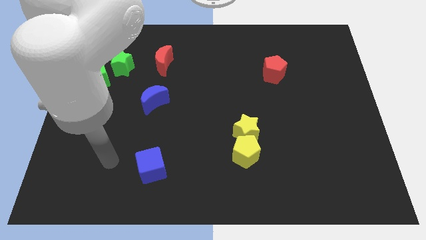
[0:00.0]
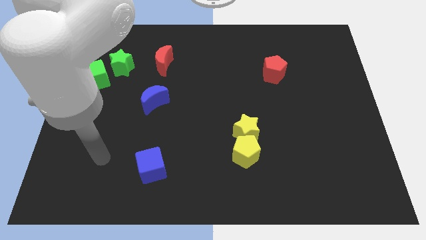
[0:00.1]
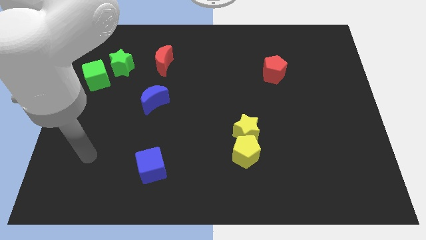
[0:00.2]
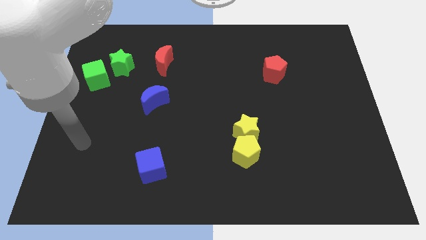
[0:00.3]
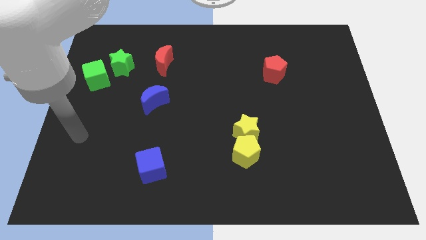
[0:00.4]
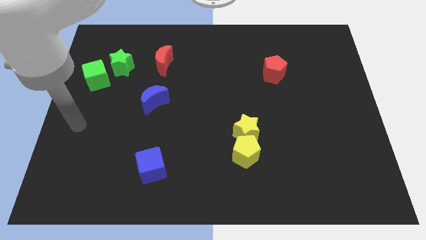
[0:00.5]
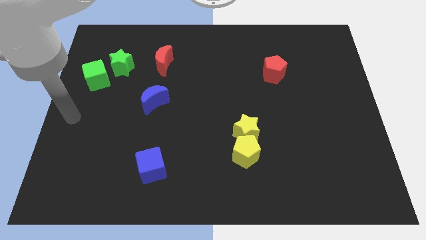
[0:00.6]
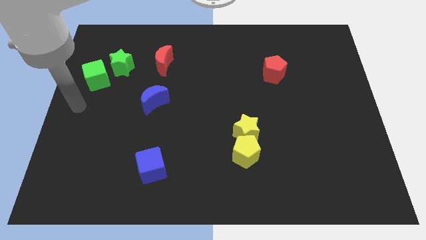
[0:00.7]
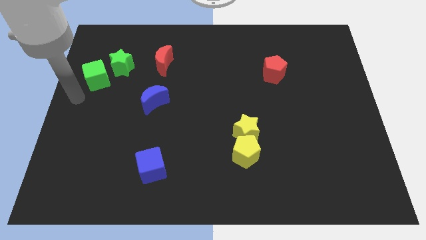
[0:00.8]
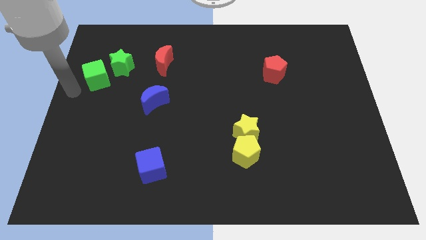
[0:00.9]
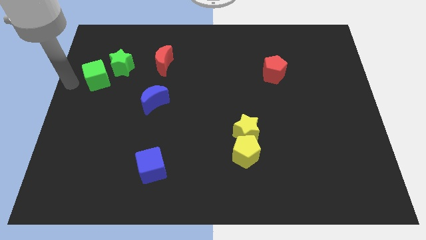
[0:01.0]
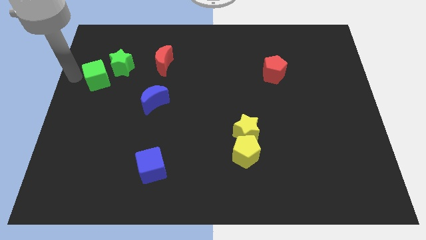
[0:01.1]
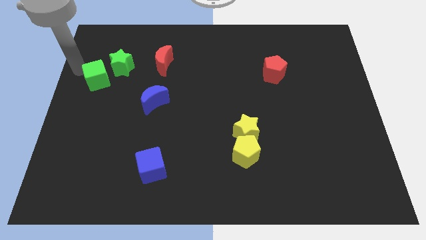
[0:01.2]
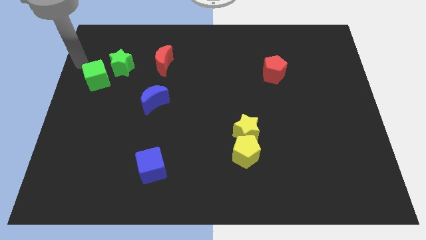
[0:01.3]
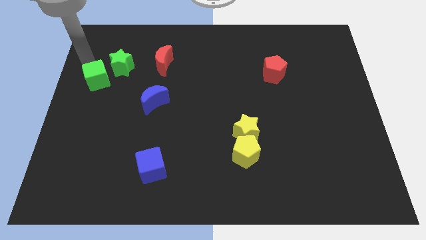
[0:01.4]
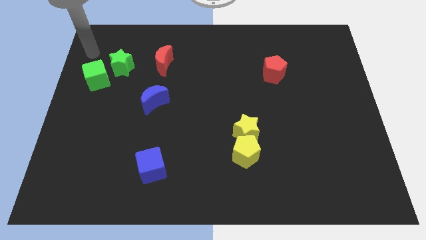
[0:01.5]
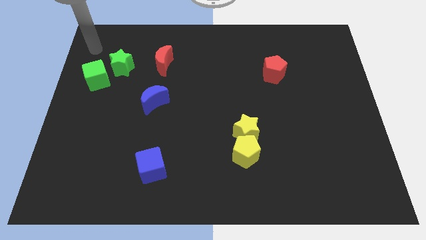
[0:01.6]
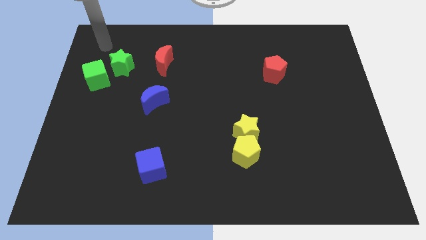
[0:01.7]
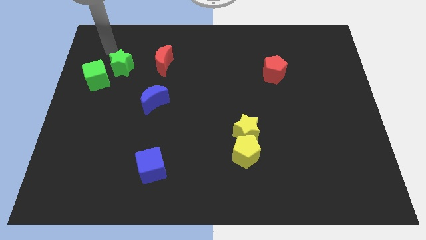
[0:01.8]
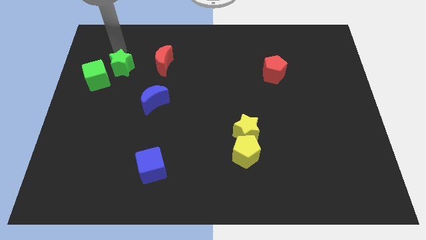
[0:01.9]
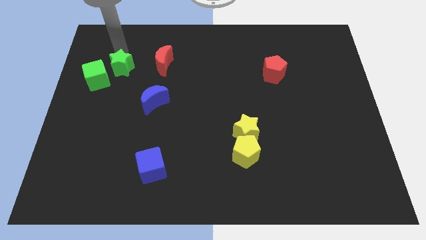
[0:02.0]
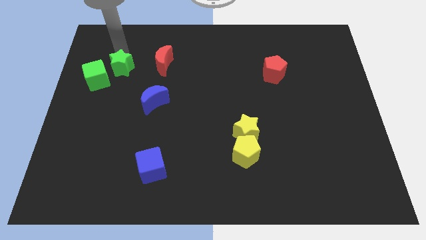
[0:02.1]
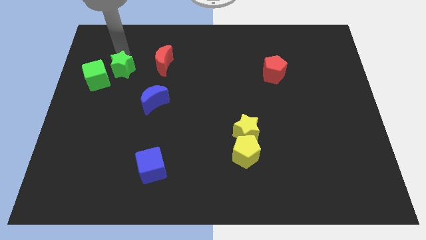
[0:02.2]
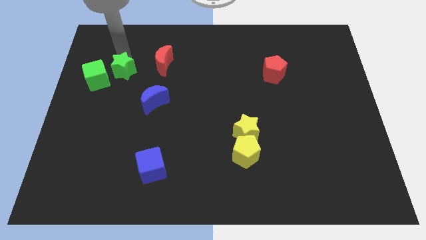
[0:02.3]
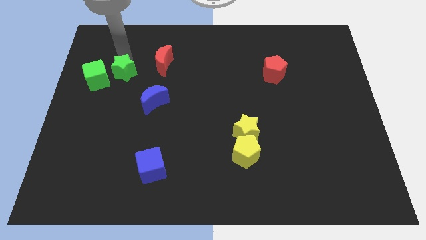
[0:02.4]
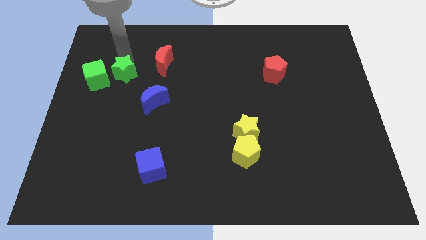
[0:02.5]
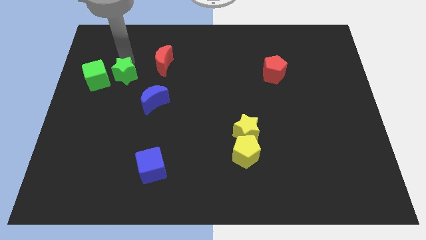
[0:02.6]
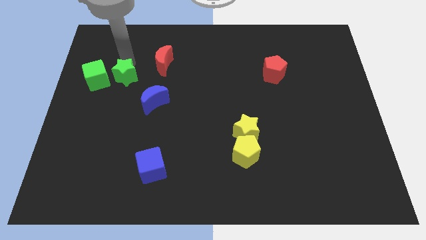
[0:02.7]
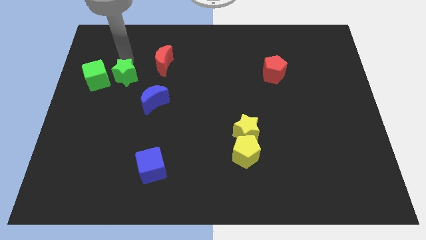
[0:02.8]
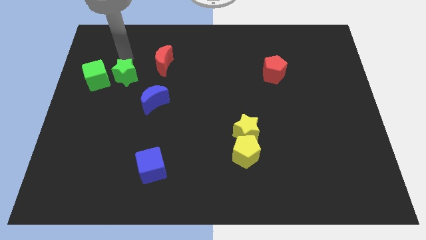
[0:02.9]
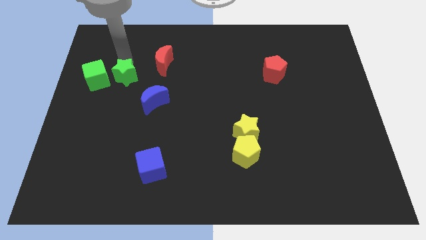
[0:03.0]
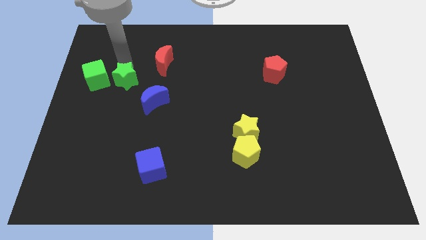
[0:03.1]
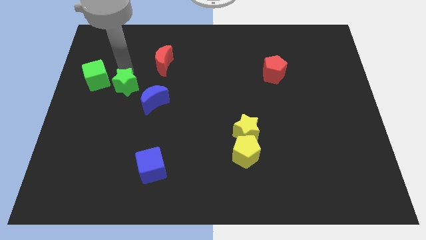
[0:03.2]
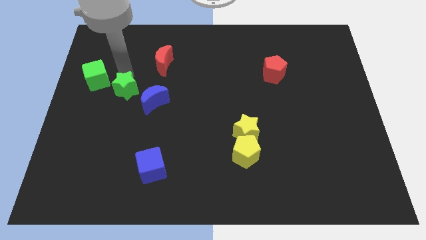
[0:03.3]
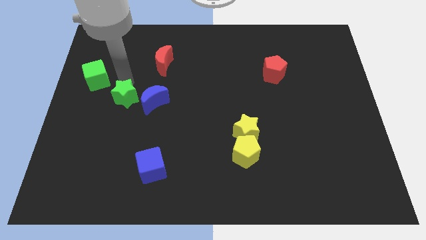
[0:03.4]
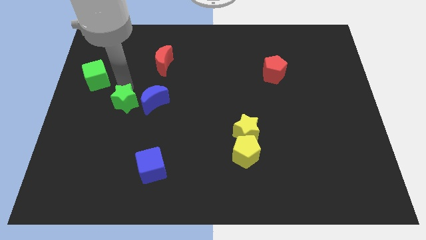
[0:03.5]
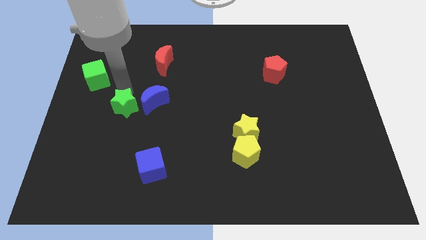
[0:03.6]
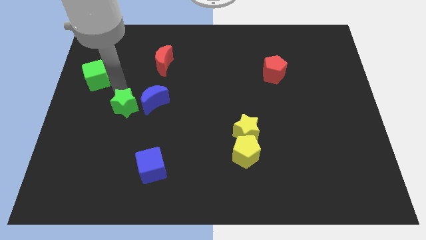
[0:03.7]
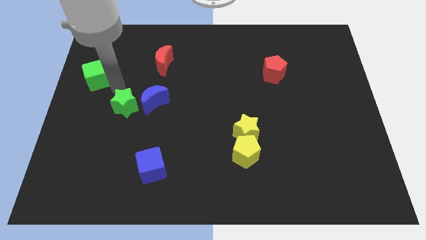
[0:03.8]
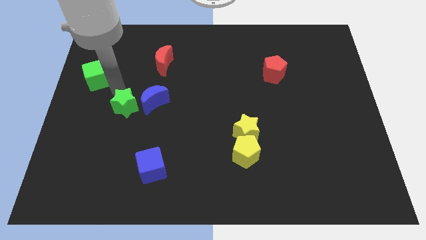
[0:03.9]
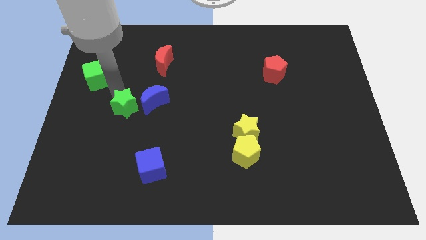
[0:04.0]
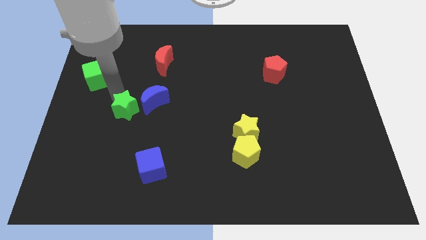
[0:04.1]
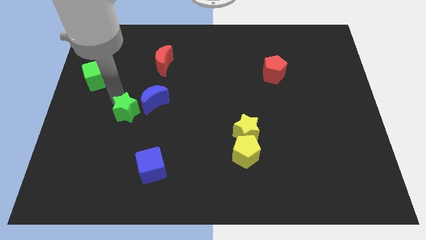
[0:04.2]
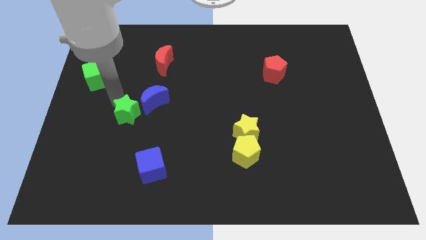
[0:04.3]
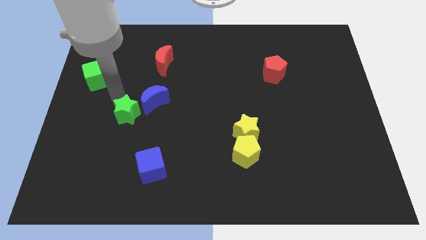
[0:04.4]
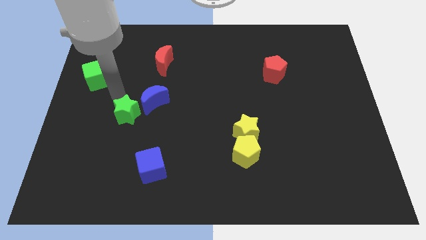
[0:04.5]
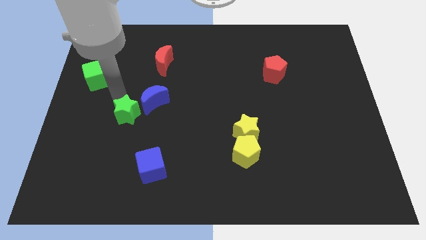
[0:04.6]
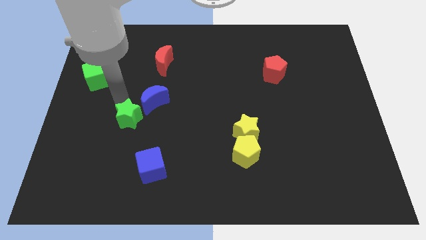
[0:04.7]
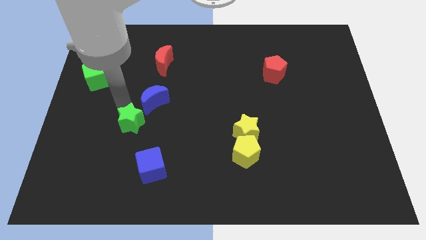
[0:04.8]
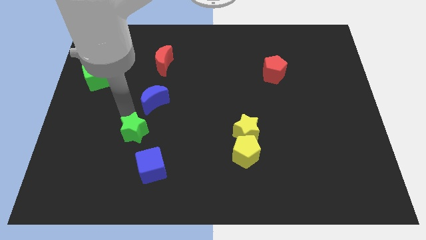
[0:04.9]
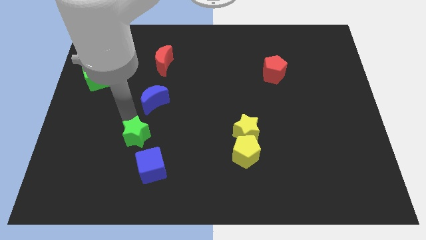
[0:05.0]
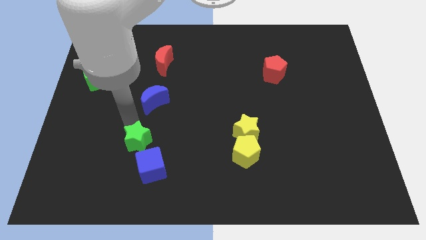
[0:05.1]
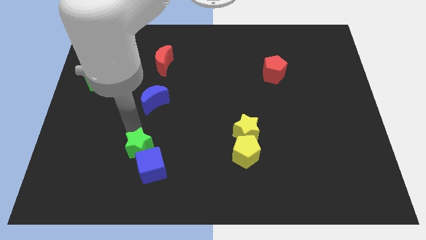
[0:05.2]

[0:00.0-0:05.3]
put the green star towards the blue cube

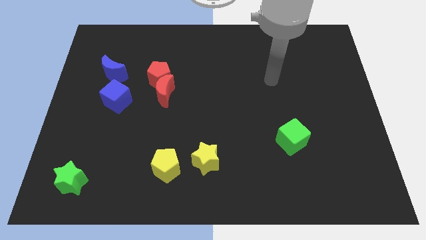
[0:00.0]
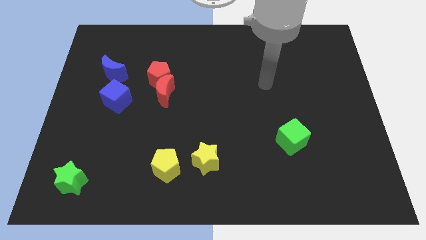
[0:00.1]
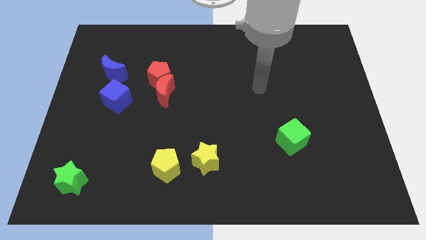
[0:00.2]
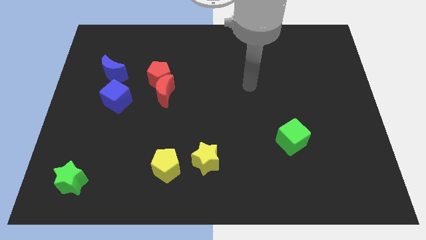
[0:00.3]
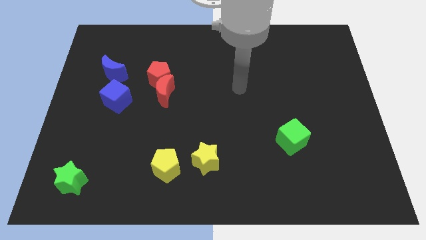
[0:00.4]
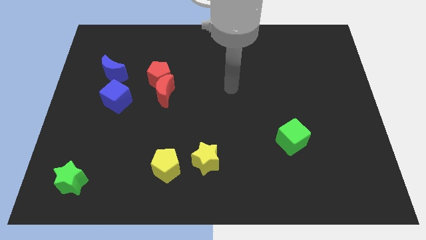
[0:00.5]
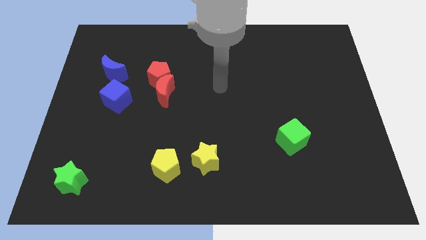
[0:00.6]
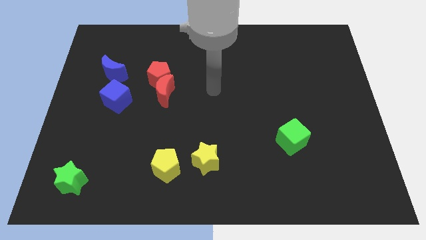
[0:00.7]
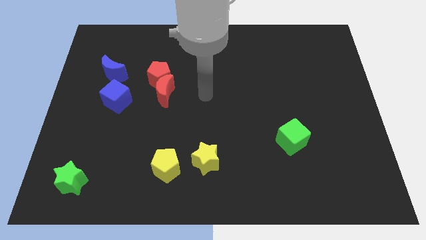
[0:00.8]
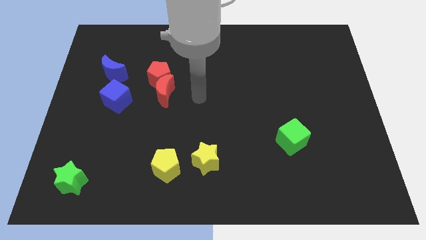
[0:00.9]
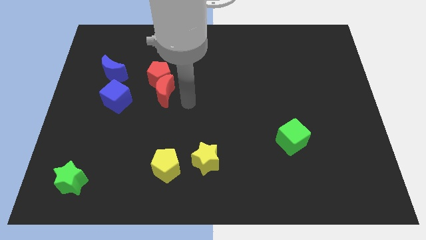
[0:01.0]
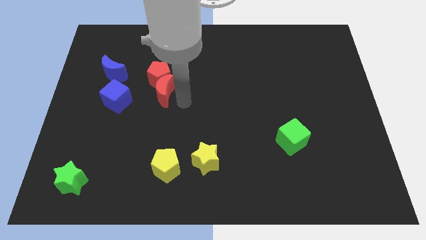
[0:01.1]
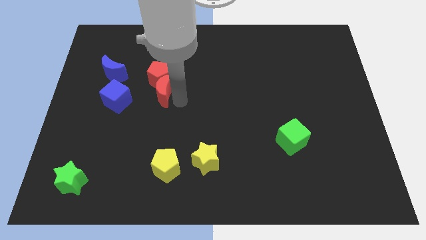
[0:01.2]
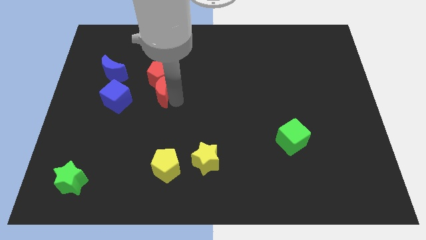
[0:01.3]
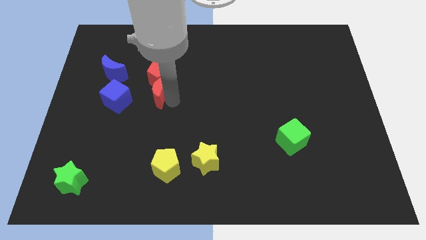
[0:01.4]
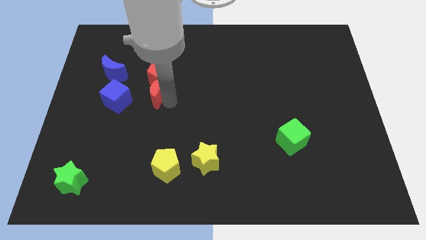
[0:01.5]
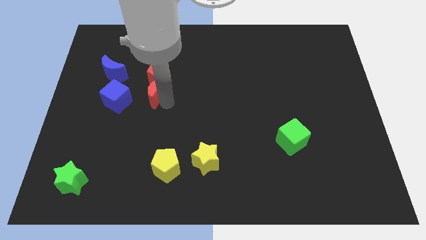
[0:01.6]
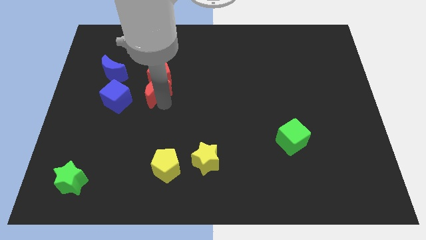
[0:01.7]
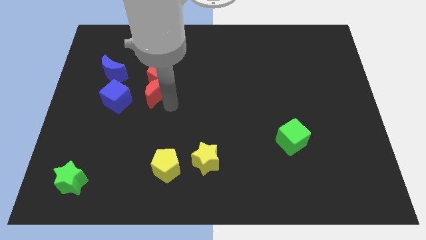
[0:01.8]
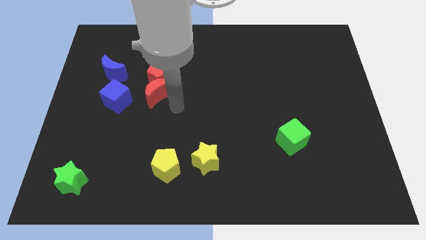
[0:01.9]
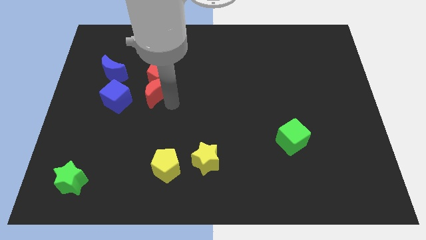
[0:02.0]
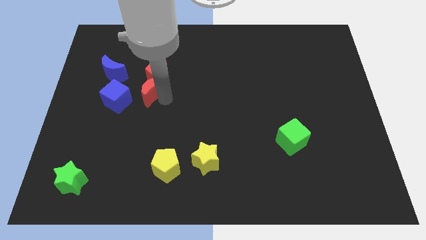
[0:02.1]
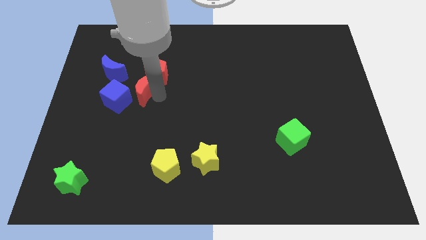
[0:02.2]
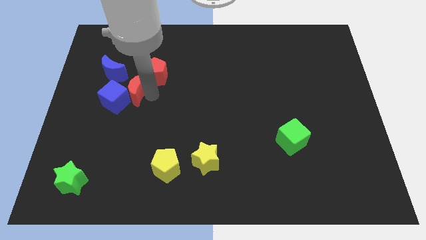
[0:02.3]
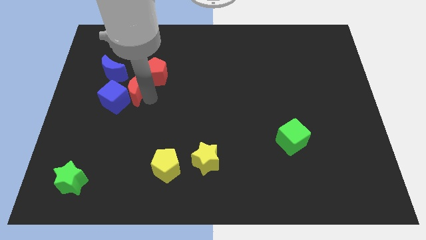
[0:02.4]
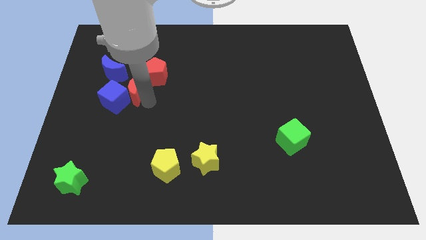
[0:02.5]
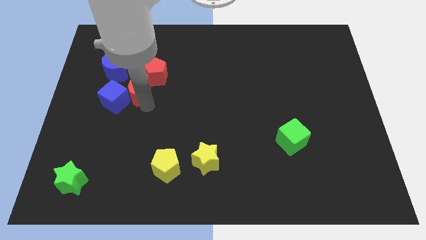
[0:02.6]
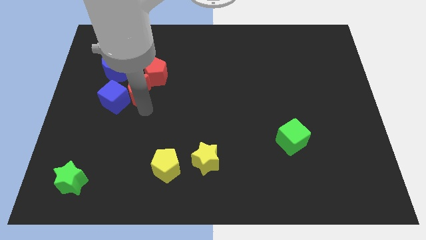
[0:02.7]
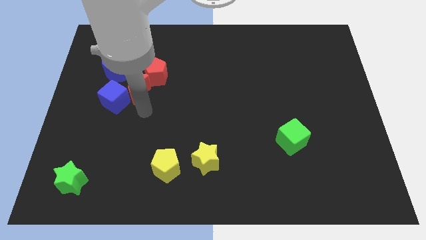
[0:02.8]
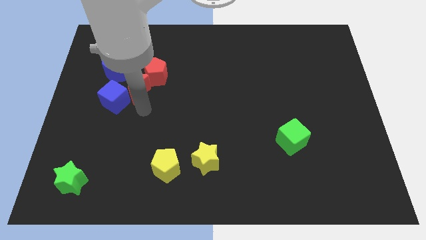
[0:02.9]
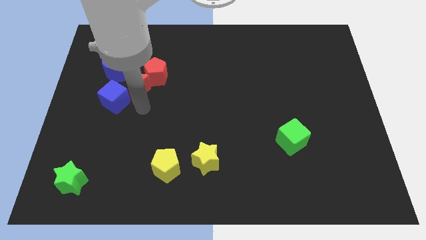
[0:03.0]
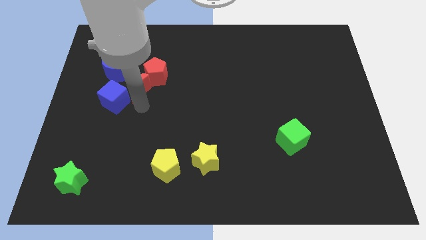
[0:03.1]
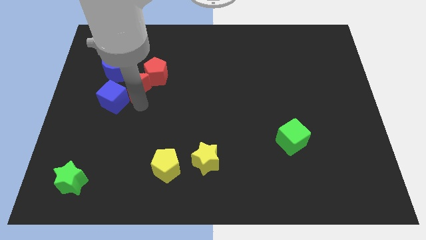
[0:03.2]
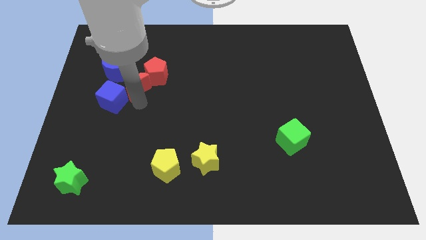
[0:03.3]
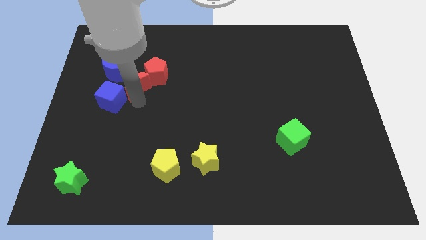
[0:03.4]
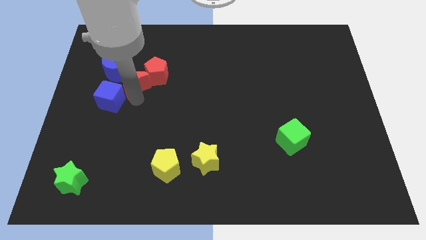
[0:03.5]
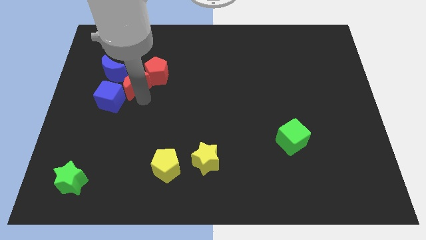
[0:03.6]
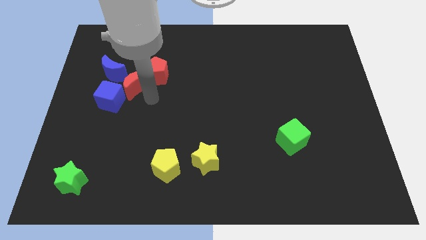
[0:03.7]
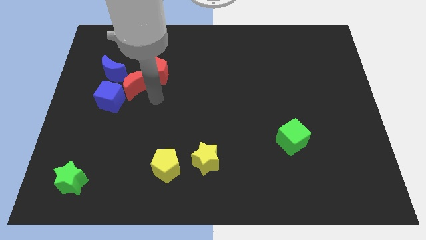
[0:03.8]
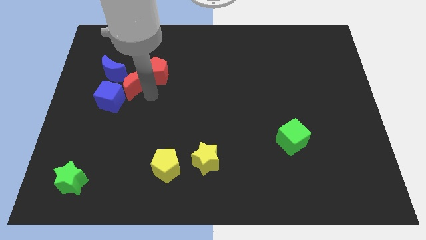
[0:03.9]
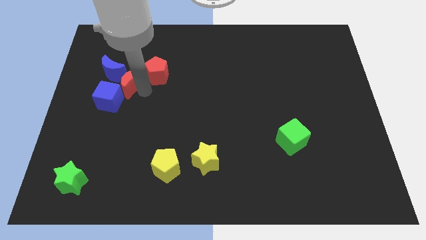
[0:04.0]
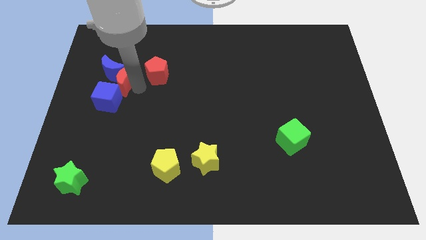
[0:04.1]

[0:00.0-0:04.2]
push the red moon next to the blue moon
